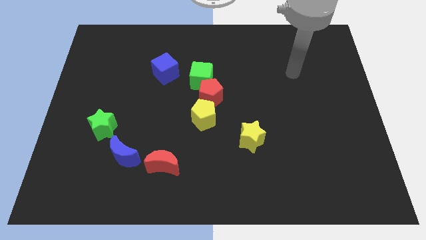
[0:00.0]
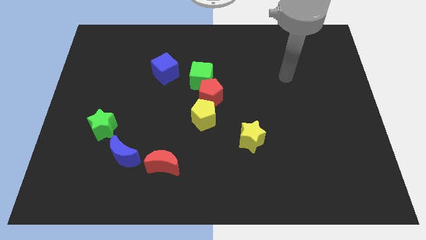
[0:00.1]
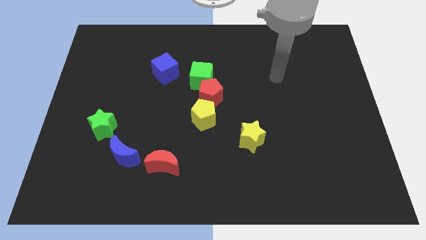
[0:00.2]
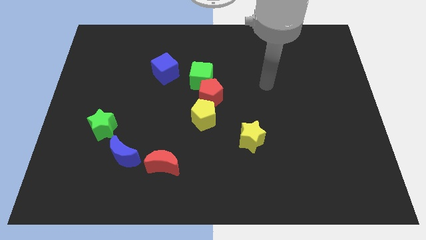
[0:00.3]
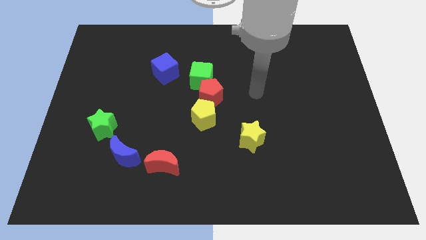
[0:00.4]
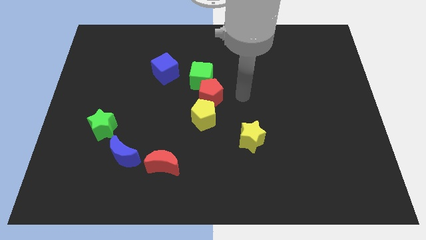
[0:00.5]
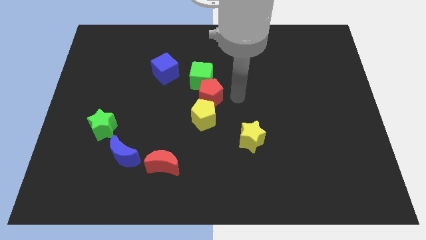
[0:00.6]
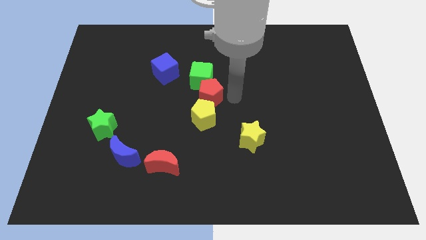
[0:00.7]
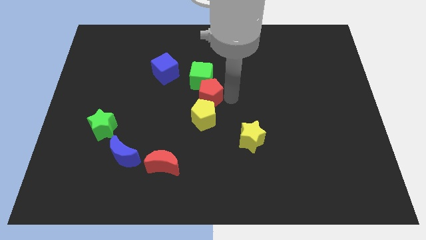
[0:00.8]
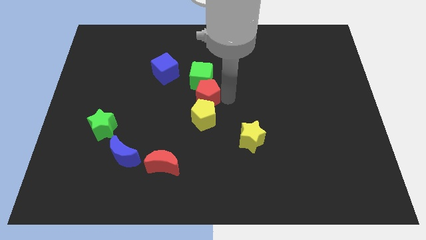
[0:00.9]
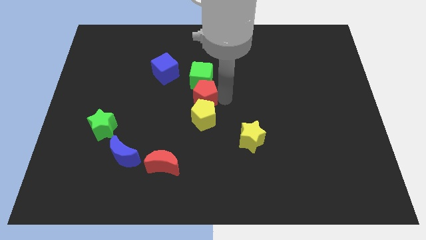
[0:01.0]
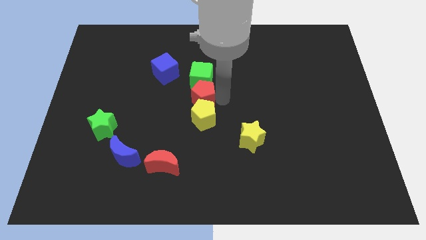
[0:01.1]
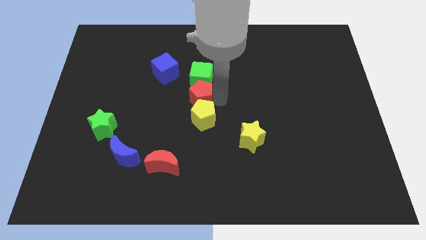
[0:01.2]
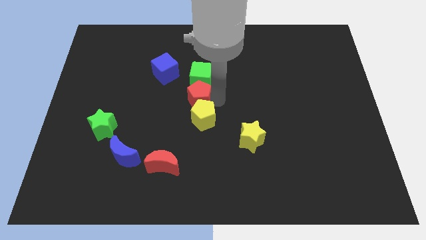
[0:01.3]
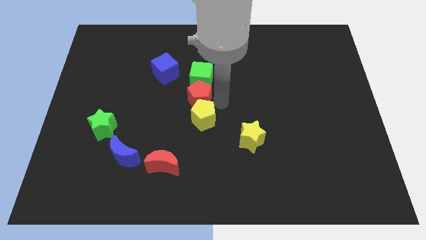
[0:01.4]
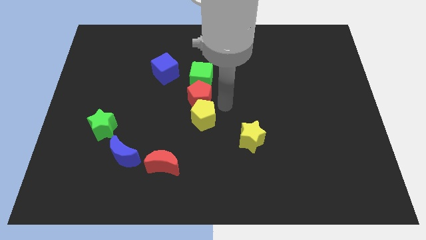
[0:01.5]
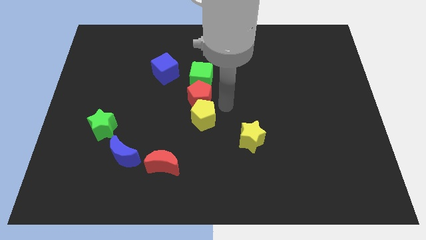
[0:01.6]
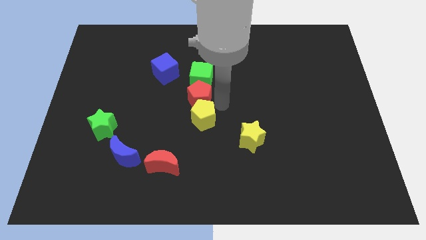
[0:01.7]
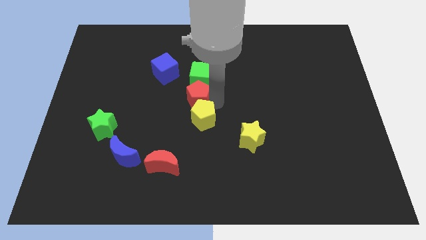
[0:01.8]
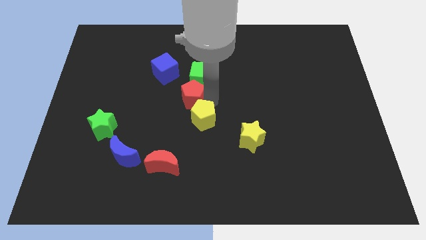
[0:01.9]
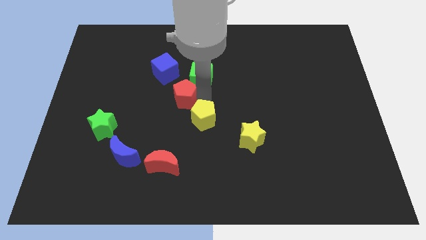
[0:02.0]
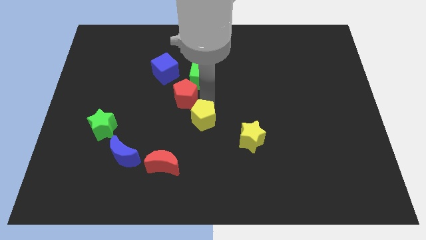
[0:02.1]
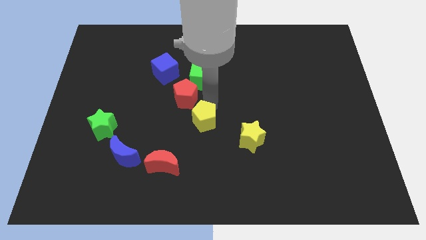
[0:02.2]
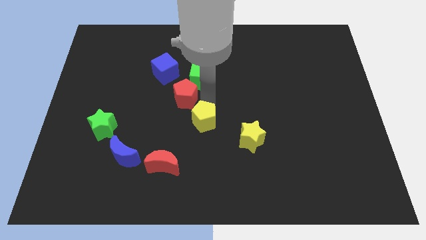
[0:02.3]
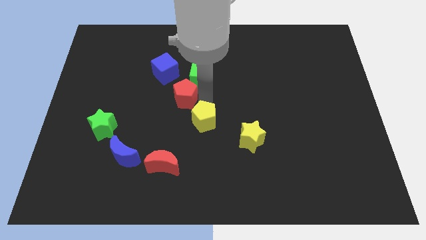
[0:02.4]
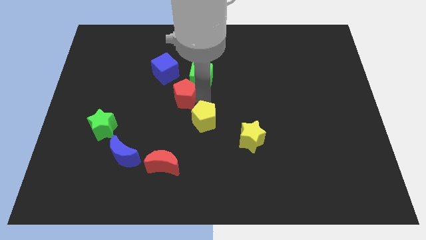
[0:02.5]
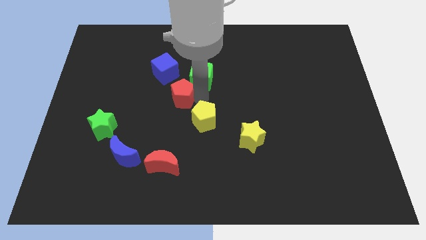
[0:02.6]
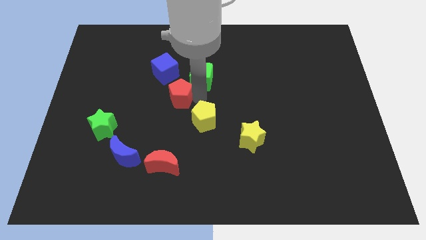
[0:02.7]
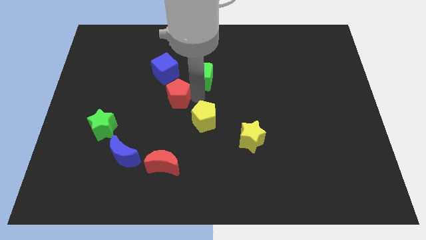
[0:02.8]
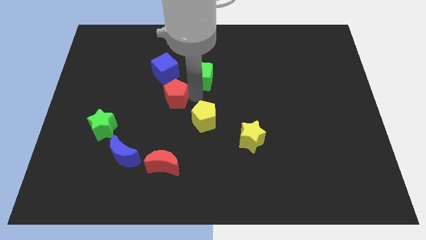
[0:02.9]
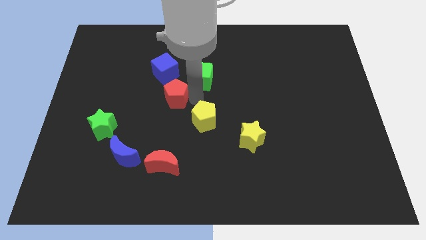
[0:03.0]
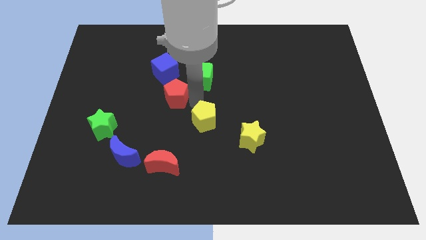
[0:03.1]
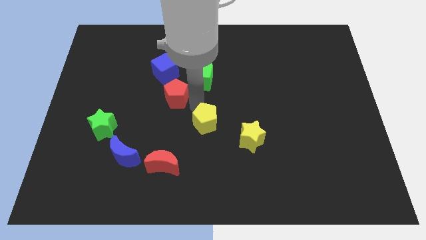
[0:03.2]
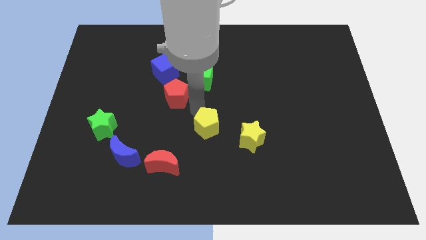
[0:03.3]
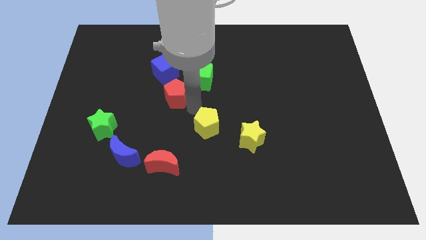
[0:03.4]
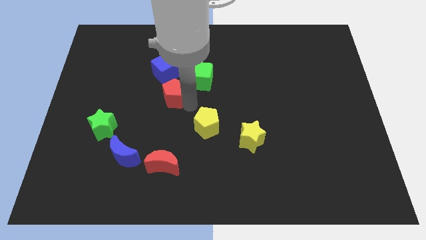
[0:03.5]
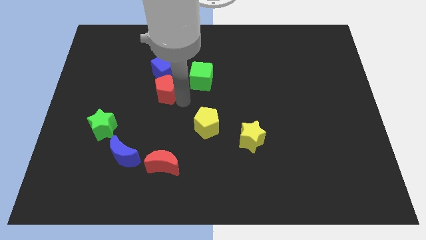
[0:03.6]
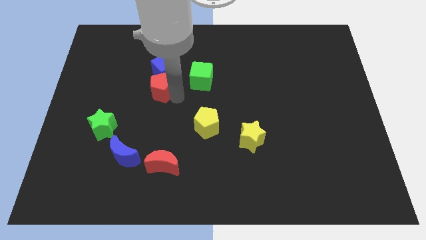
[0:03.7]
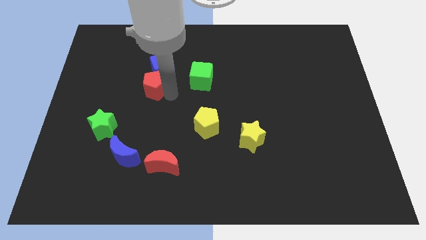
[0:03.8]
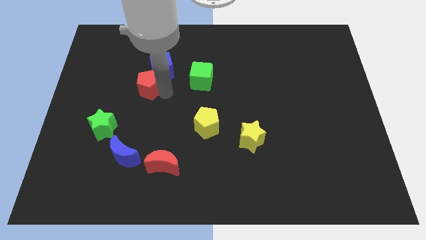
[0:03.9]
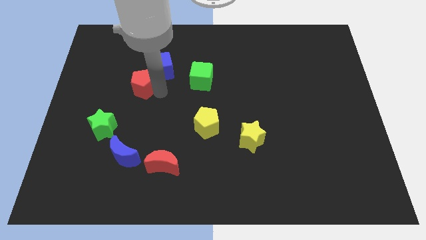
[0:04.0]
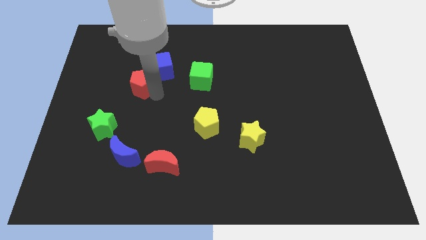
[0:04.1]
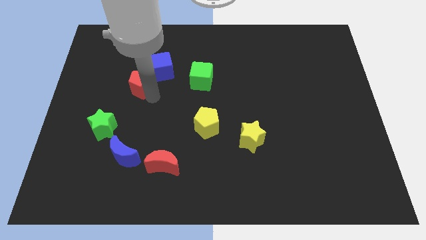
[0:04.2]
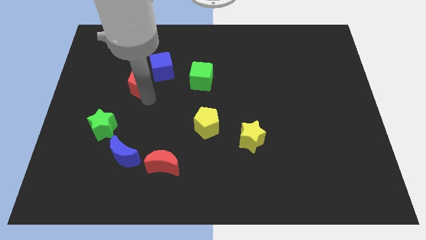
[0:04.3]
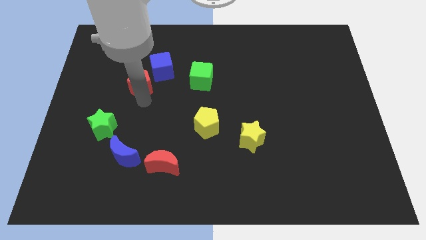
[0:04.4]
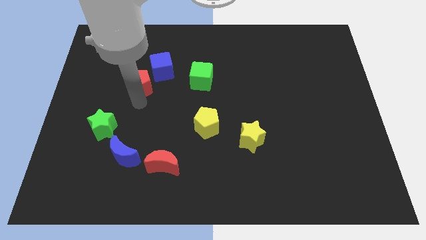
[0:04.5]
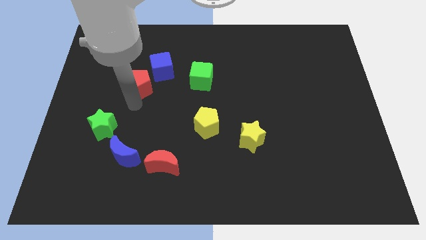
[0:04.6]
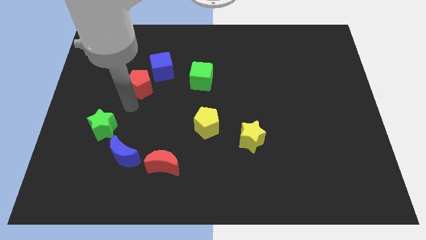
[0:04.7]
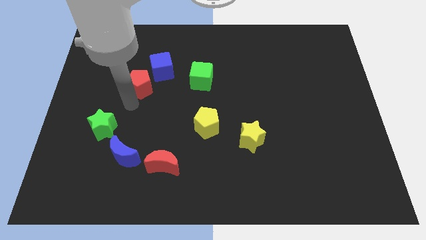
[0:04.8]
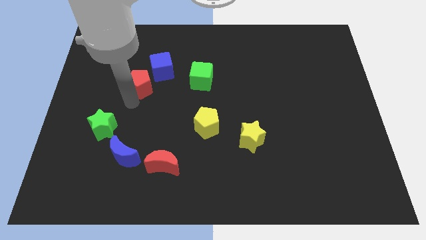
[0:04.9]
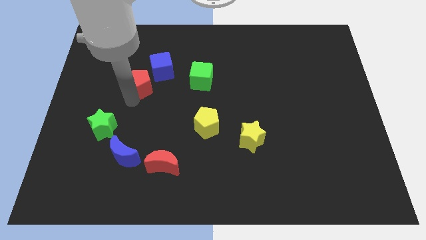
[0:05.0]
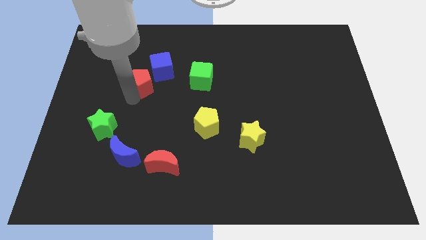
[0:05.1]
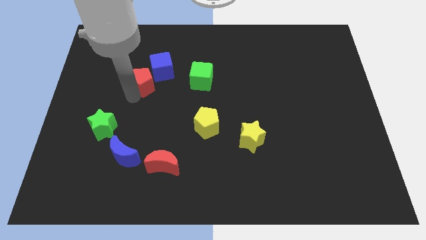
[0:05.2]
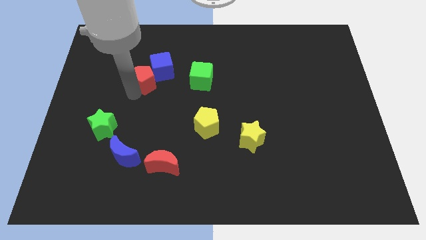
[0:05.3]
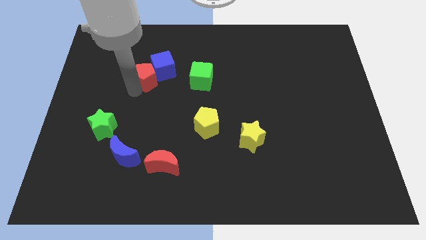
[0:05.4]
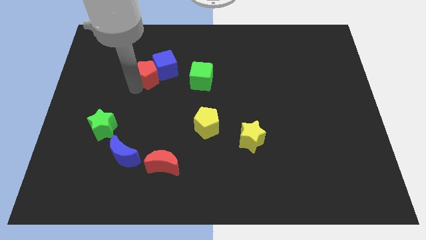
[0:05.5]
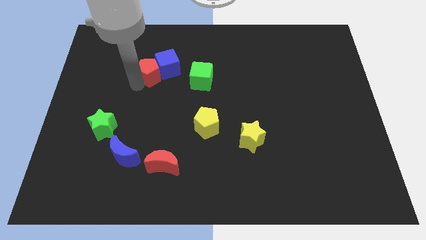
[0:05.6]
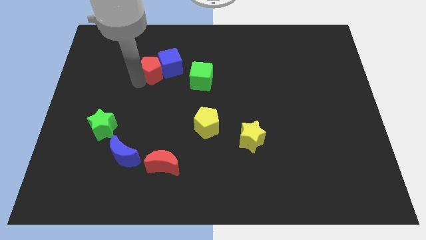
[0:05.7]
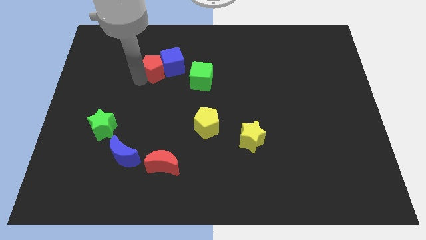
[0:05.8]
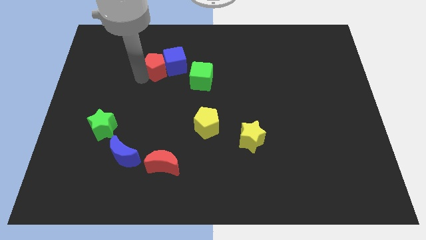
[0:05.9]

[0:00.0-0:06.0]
put the red pentagon diagonally up and to the left of the blue cube

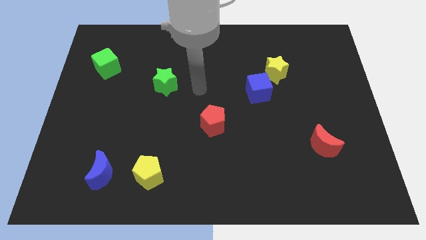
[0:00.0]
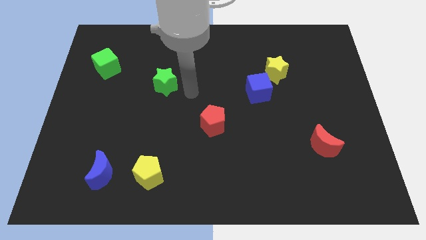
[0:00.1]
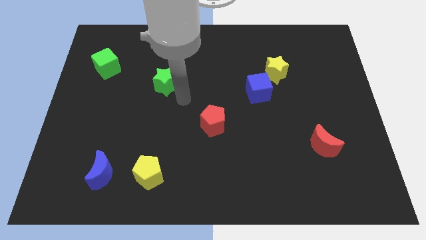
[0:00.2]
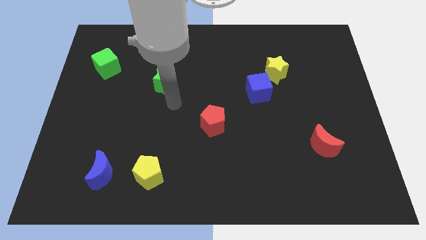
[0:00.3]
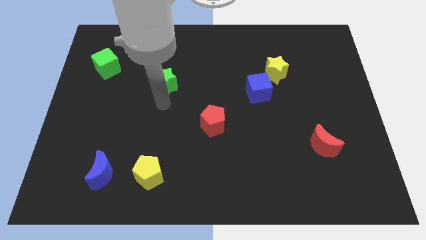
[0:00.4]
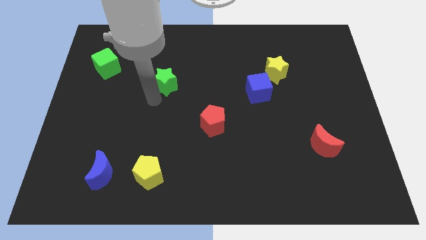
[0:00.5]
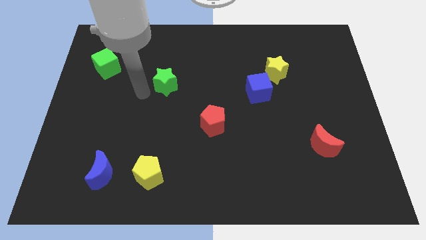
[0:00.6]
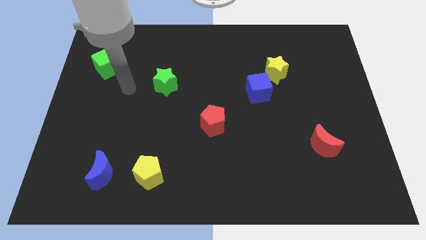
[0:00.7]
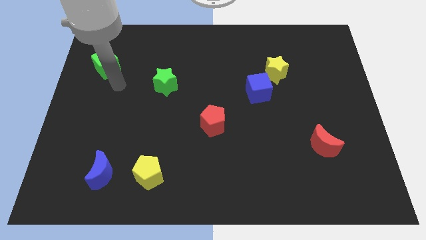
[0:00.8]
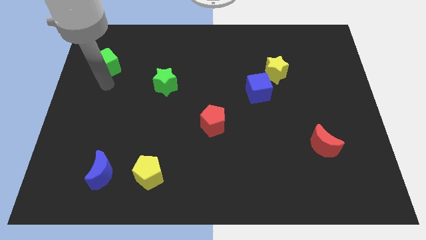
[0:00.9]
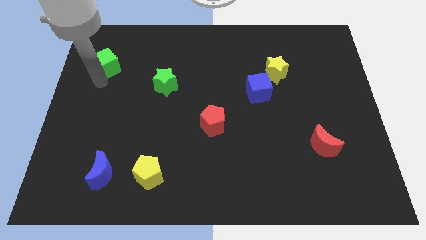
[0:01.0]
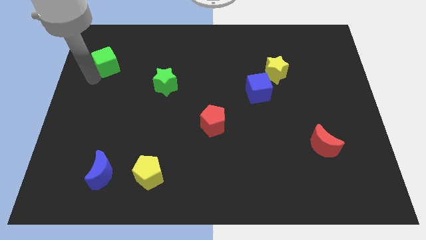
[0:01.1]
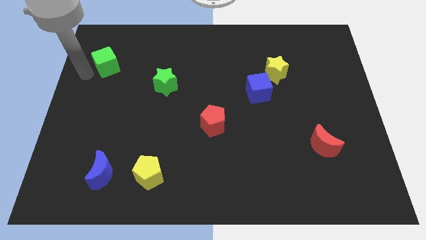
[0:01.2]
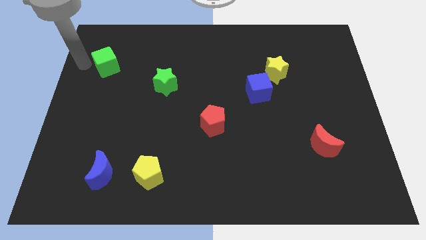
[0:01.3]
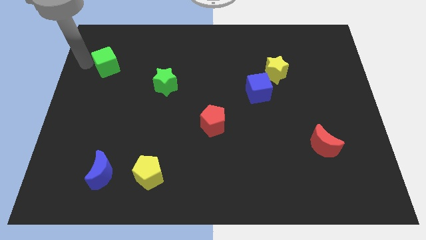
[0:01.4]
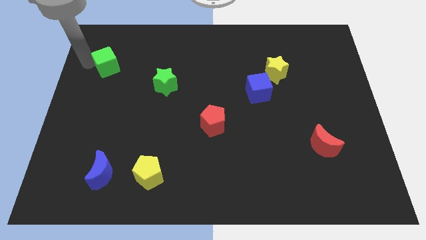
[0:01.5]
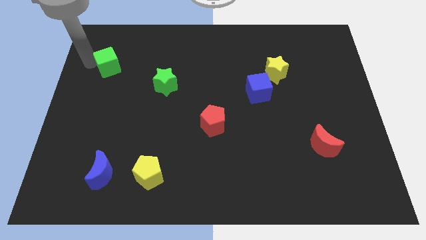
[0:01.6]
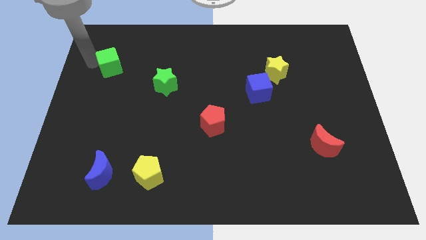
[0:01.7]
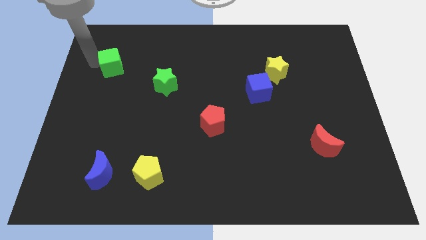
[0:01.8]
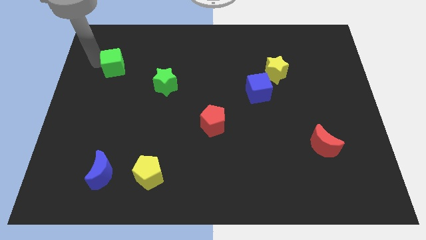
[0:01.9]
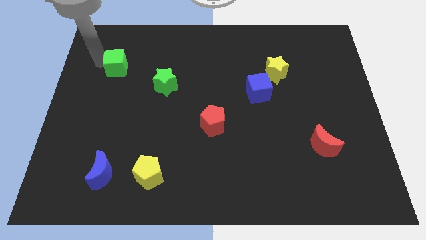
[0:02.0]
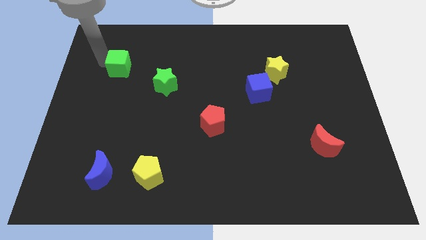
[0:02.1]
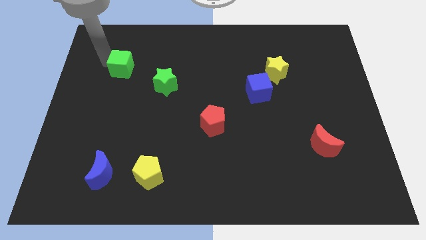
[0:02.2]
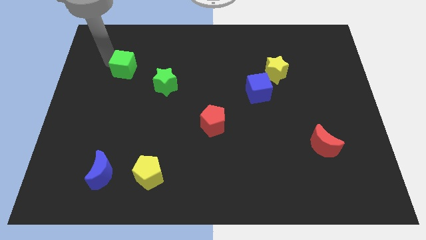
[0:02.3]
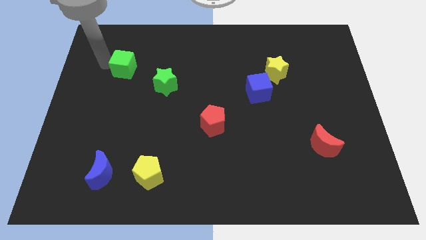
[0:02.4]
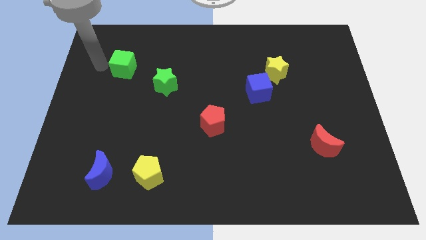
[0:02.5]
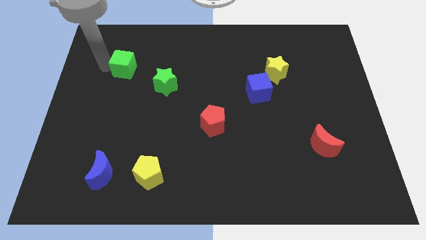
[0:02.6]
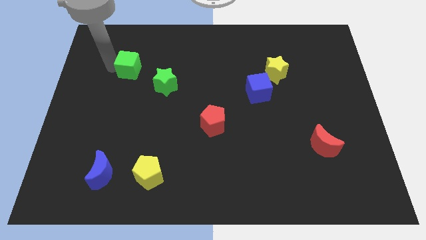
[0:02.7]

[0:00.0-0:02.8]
move the green cube to the top left side of the green star
